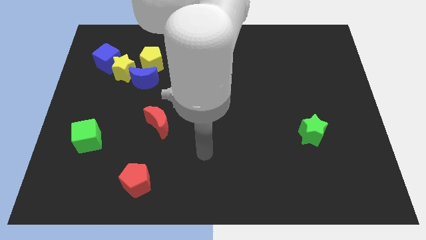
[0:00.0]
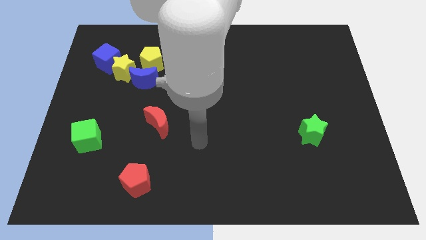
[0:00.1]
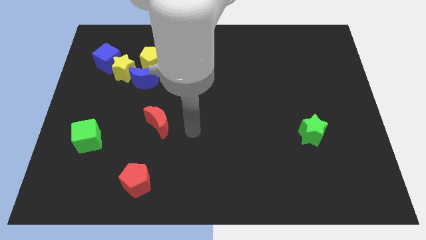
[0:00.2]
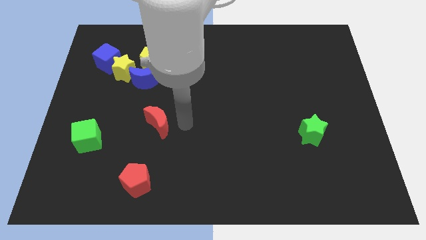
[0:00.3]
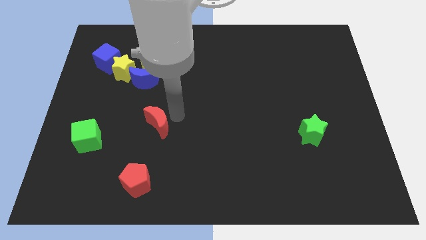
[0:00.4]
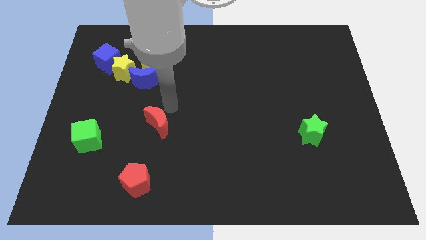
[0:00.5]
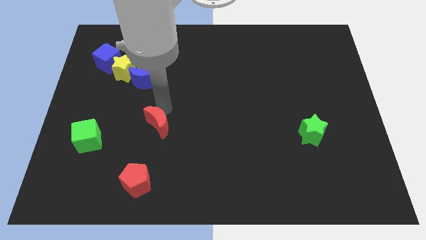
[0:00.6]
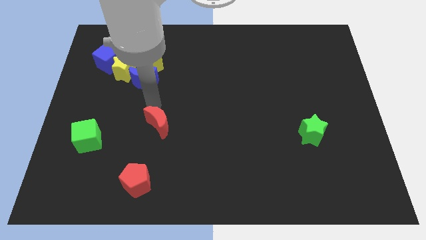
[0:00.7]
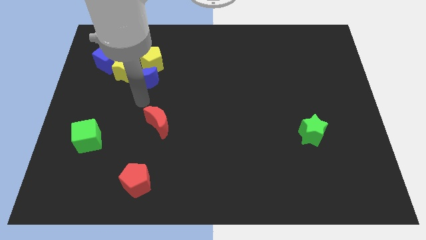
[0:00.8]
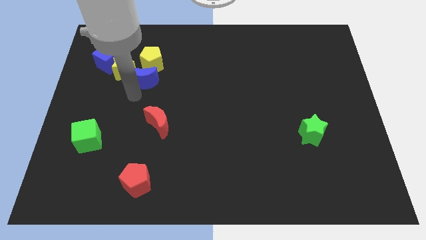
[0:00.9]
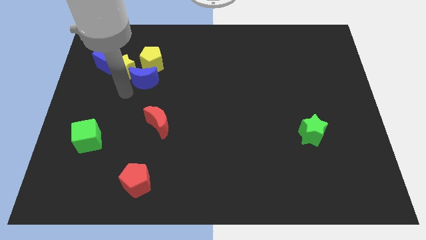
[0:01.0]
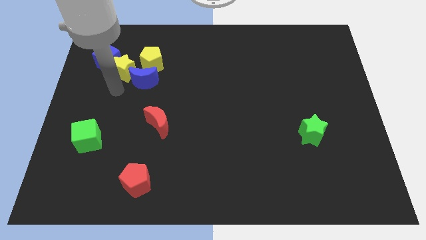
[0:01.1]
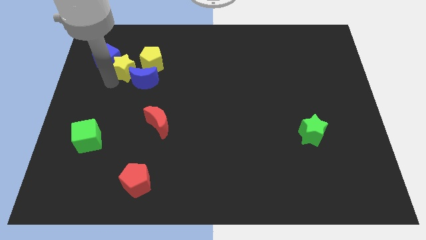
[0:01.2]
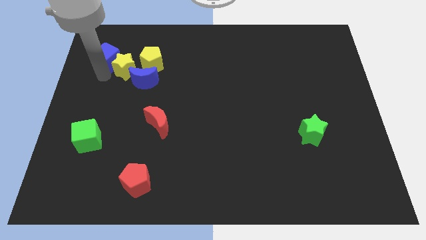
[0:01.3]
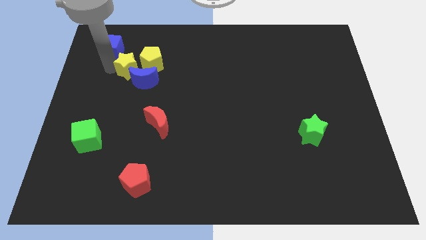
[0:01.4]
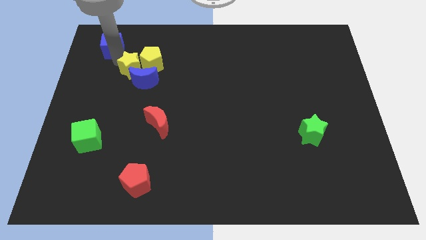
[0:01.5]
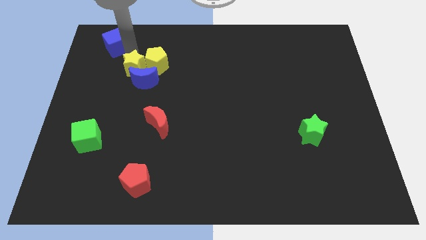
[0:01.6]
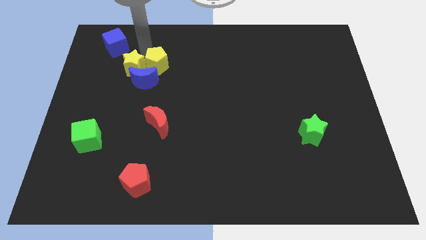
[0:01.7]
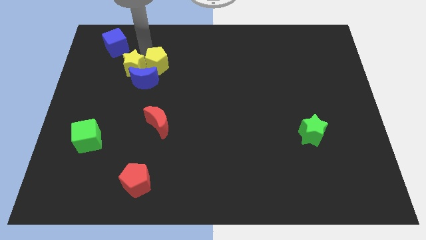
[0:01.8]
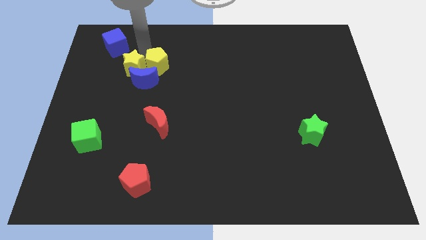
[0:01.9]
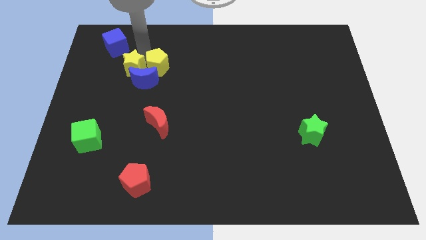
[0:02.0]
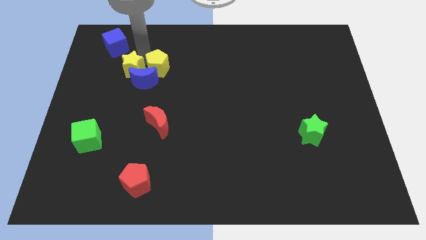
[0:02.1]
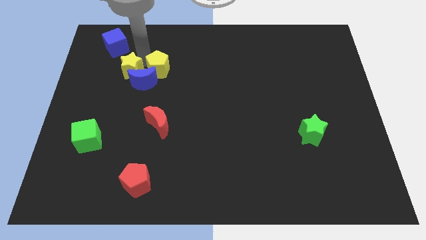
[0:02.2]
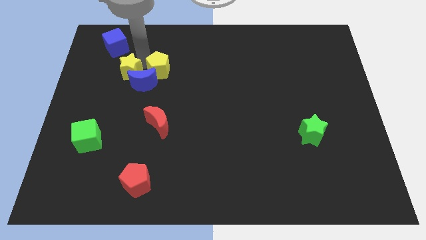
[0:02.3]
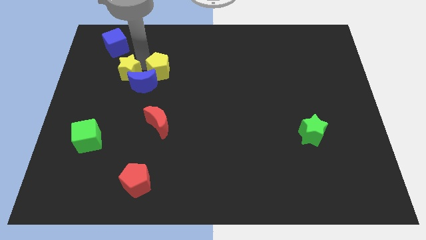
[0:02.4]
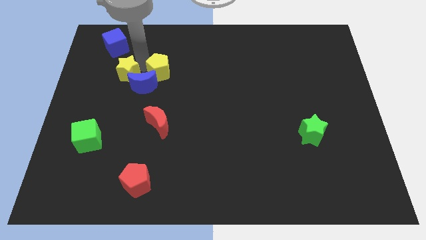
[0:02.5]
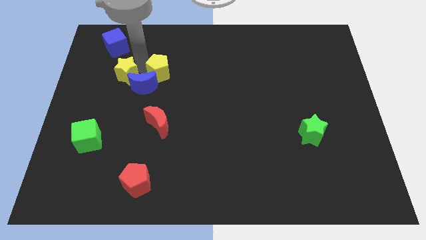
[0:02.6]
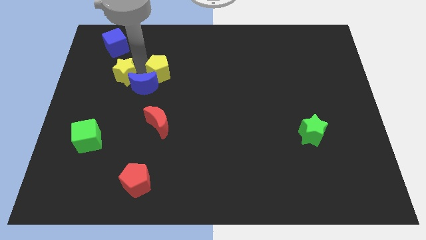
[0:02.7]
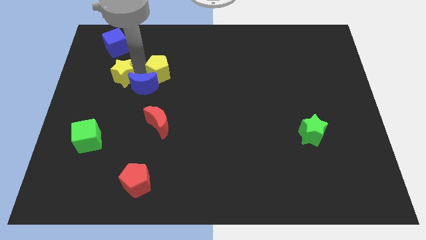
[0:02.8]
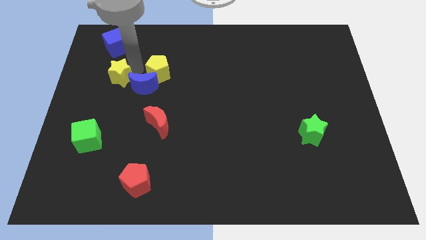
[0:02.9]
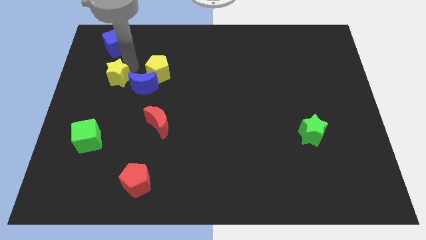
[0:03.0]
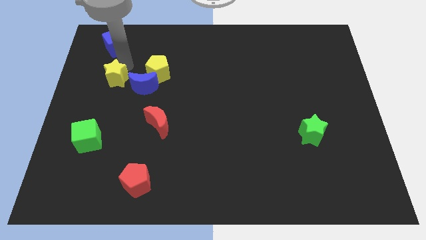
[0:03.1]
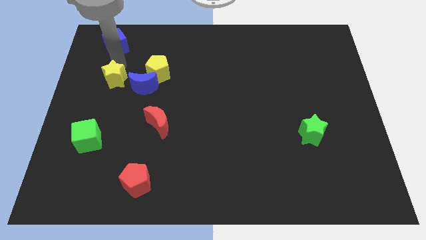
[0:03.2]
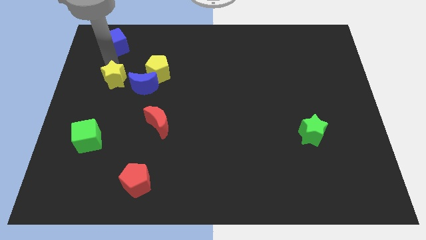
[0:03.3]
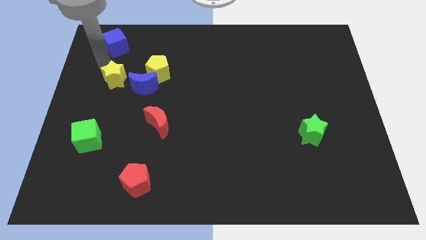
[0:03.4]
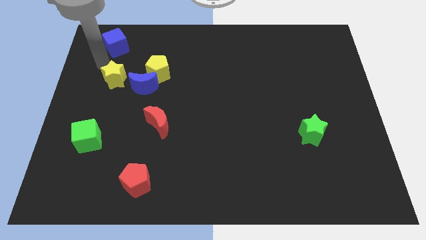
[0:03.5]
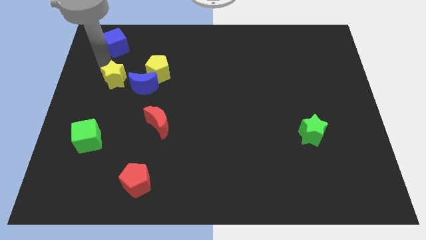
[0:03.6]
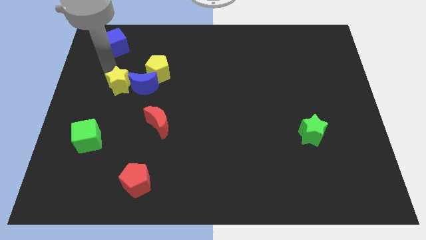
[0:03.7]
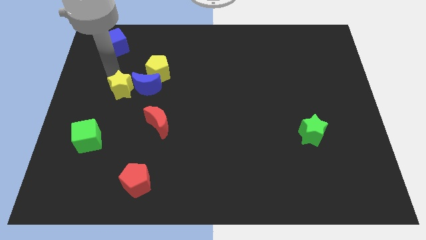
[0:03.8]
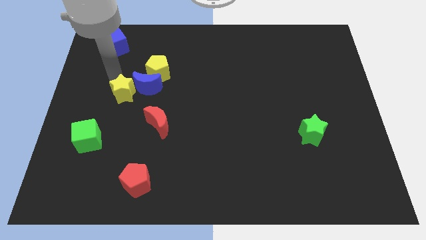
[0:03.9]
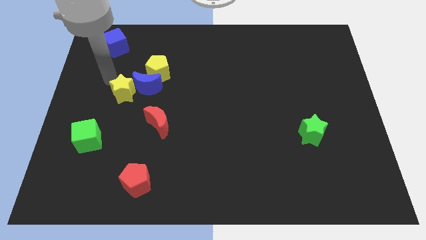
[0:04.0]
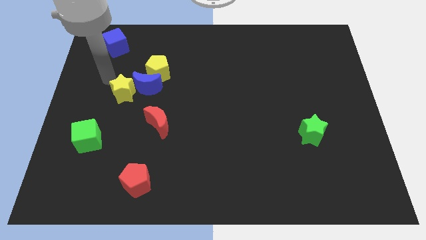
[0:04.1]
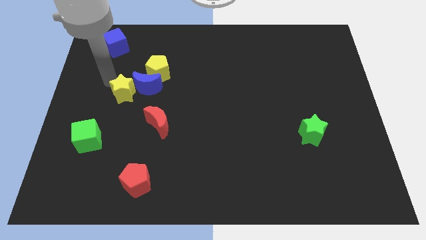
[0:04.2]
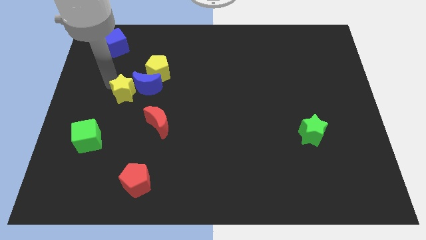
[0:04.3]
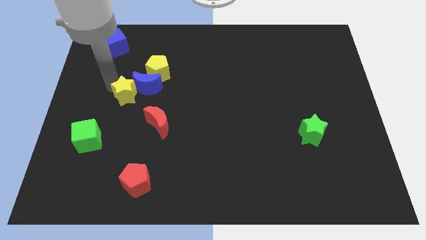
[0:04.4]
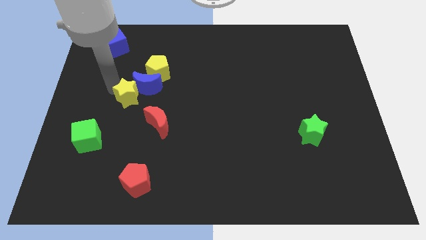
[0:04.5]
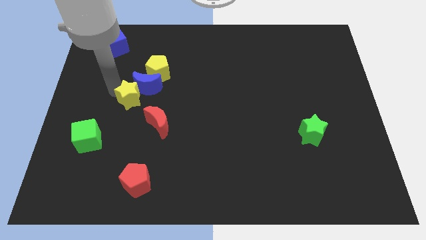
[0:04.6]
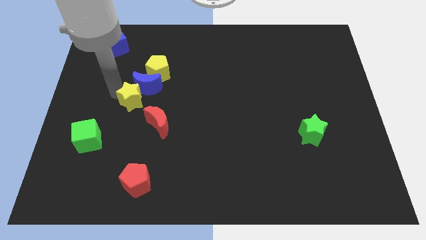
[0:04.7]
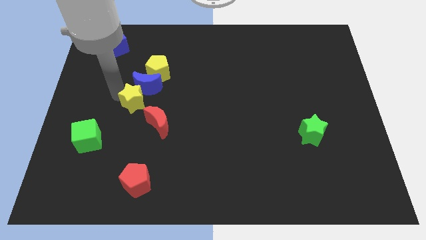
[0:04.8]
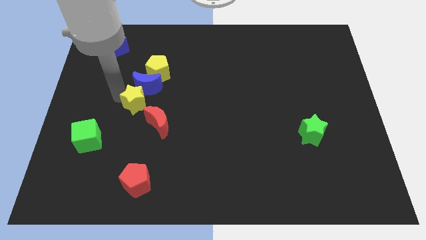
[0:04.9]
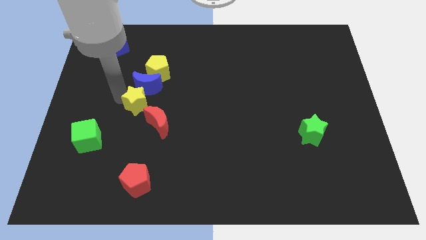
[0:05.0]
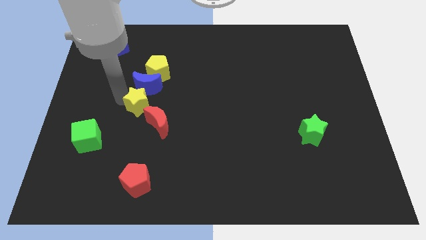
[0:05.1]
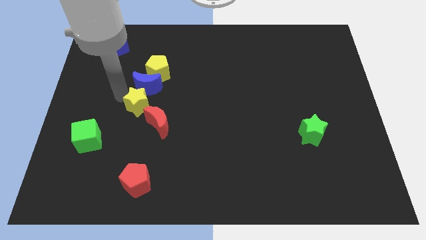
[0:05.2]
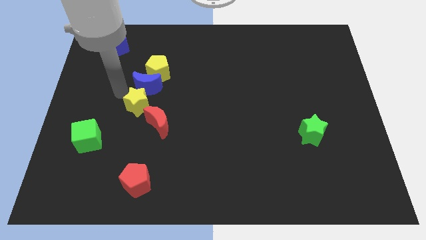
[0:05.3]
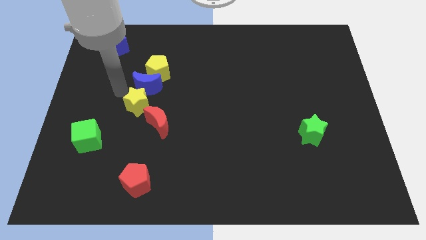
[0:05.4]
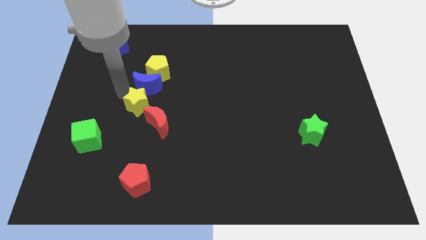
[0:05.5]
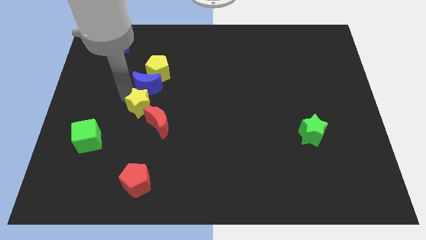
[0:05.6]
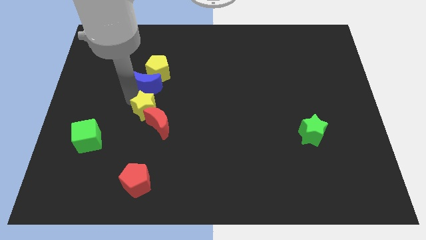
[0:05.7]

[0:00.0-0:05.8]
put the yellow star next to the red moon

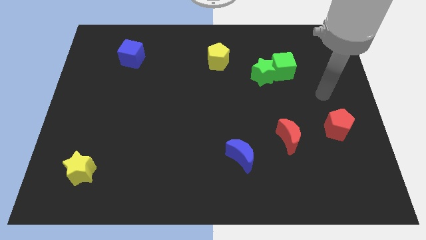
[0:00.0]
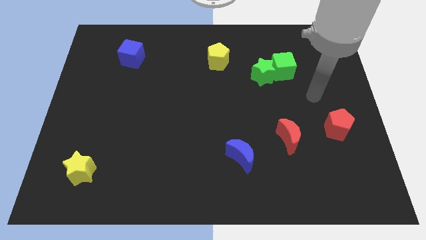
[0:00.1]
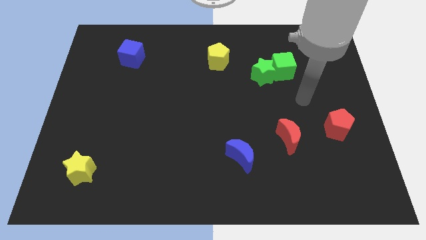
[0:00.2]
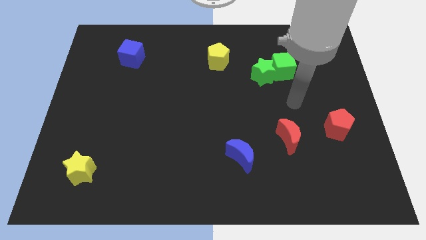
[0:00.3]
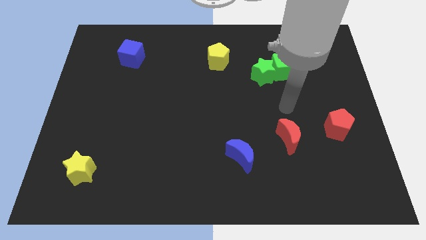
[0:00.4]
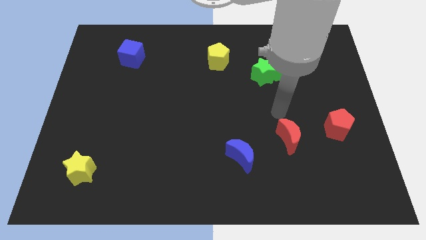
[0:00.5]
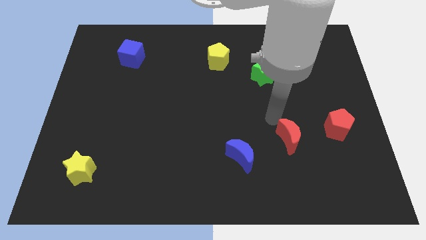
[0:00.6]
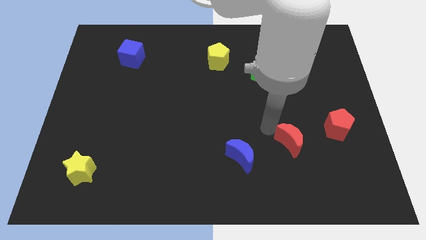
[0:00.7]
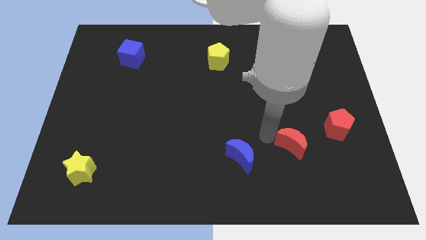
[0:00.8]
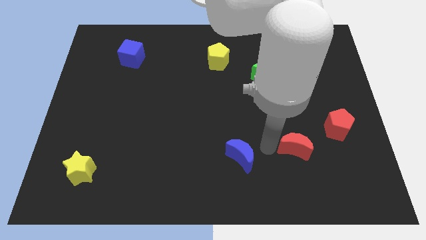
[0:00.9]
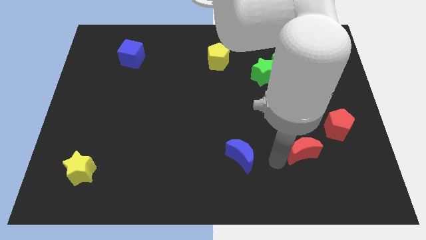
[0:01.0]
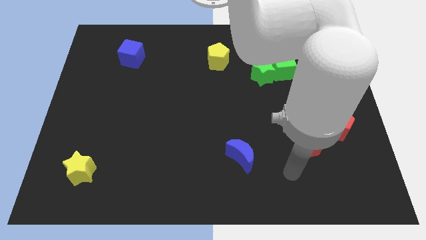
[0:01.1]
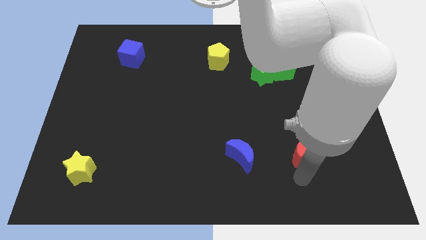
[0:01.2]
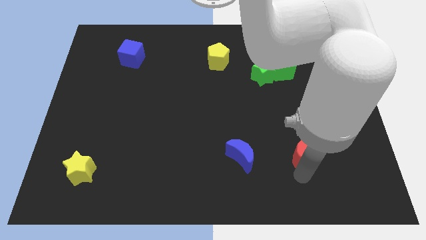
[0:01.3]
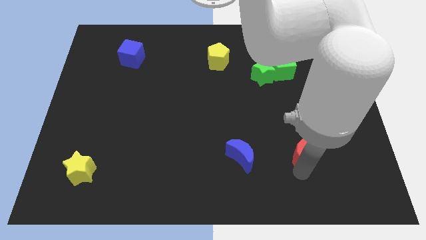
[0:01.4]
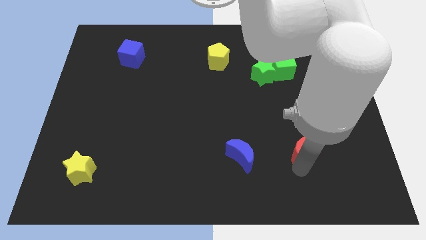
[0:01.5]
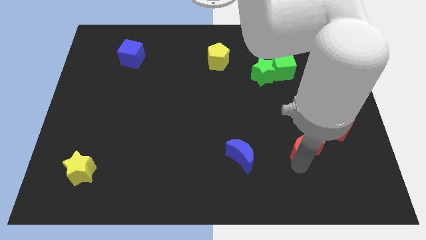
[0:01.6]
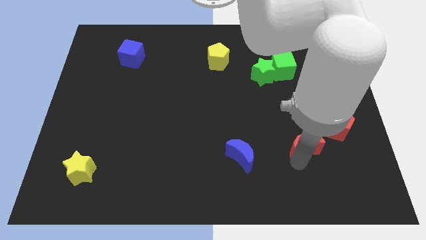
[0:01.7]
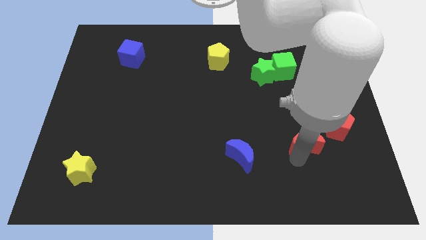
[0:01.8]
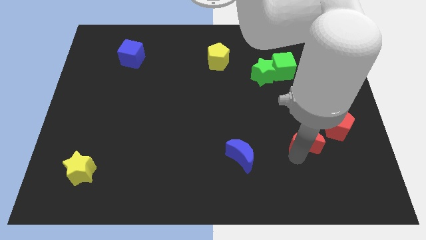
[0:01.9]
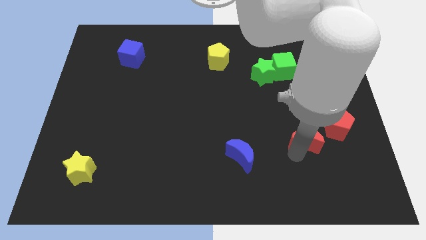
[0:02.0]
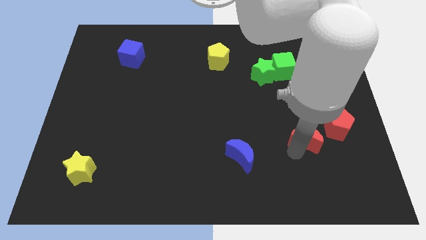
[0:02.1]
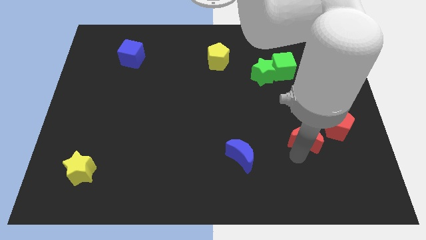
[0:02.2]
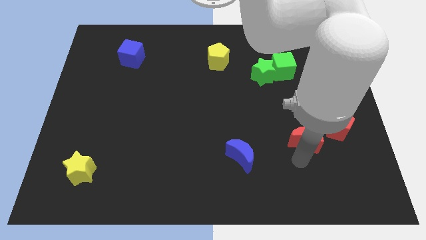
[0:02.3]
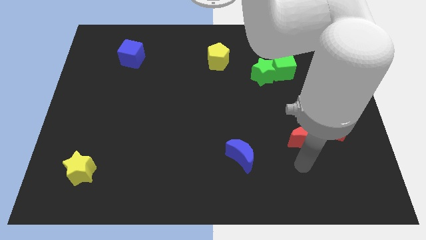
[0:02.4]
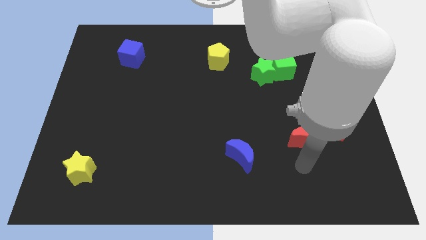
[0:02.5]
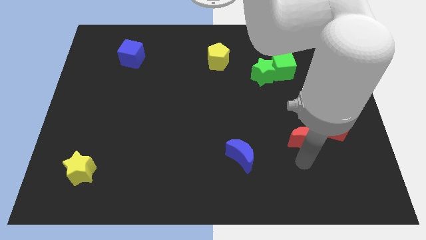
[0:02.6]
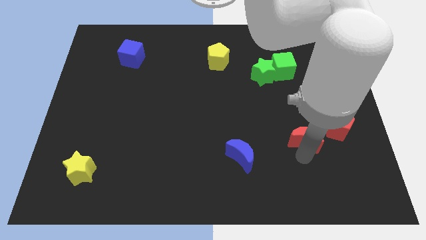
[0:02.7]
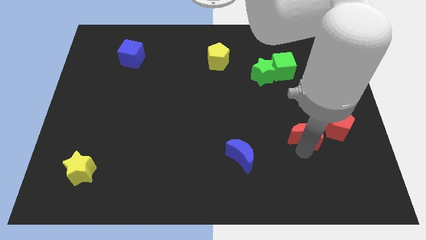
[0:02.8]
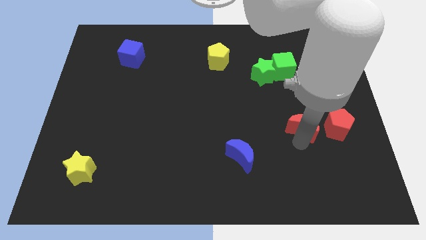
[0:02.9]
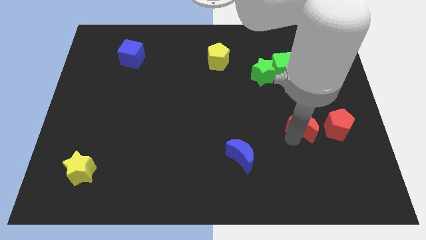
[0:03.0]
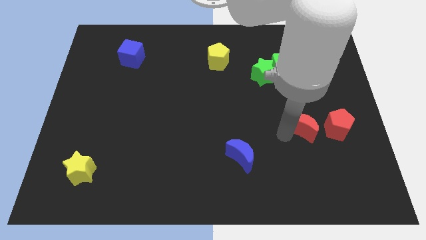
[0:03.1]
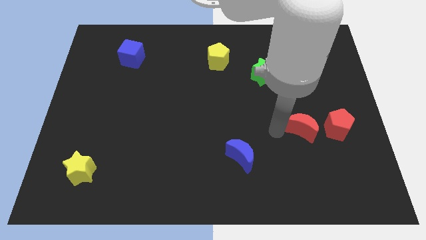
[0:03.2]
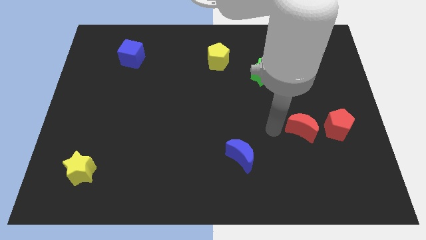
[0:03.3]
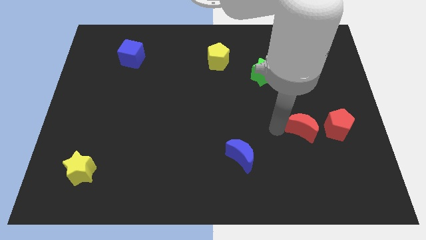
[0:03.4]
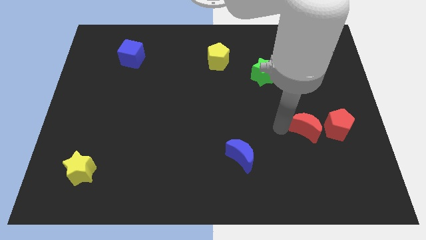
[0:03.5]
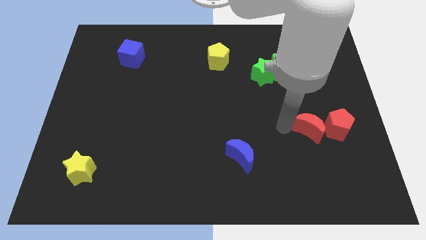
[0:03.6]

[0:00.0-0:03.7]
push the red moon to the red pentagon
